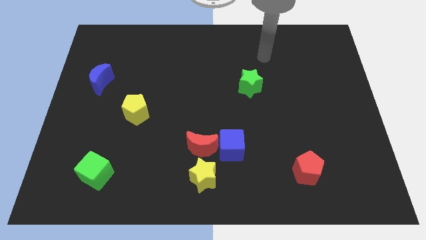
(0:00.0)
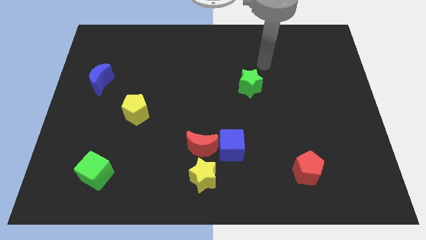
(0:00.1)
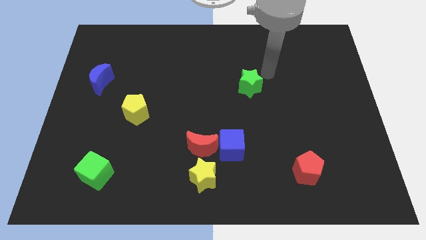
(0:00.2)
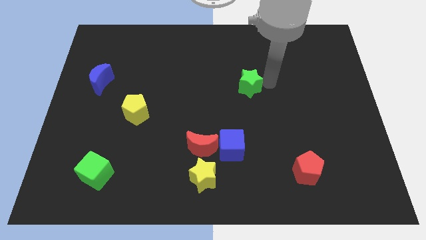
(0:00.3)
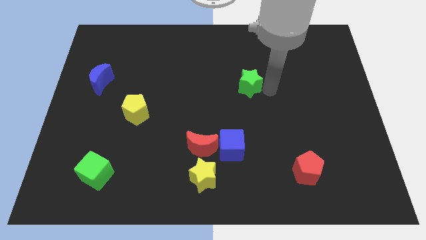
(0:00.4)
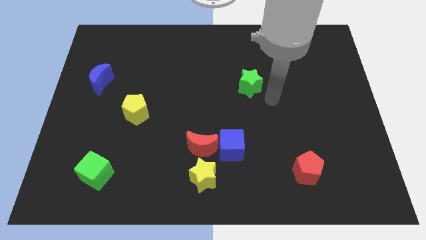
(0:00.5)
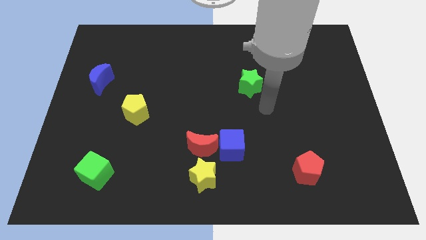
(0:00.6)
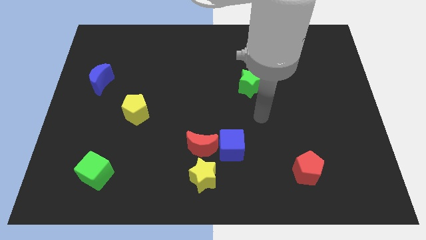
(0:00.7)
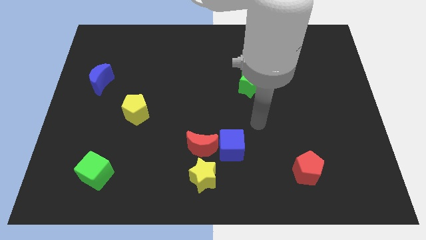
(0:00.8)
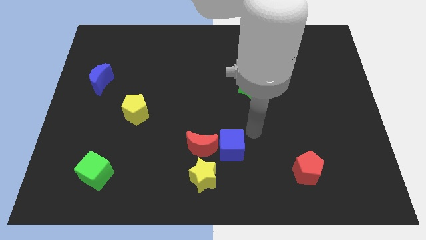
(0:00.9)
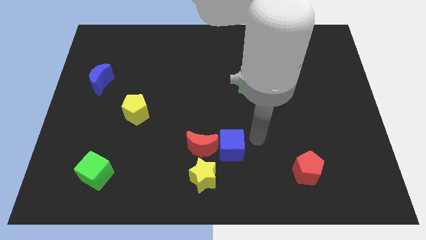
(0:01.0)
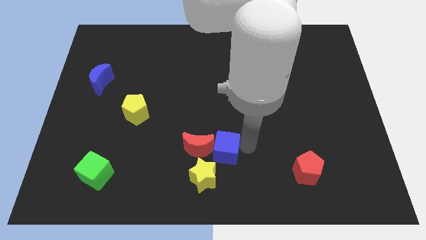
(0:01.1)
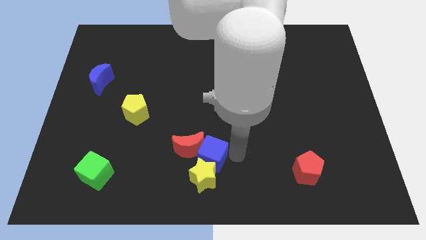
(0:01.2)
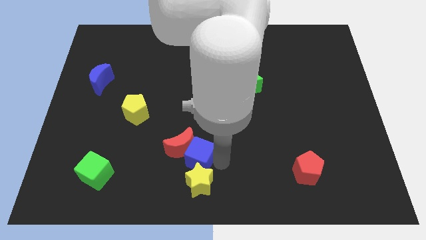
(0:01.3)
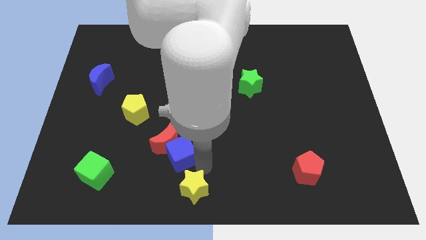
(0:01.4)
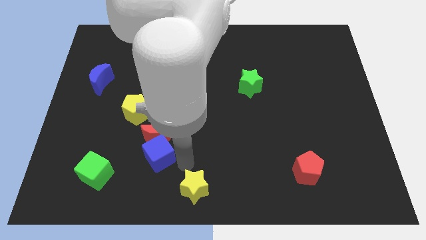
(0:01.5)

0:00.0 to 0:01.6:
move the red moon away from the blue cube and yellow star

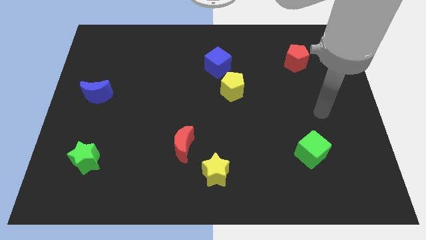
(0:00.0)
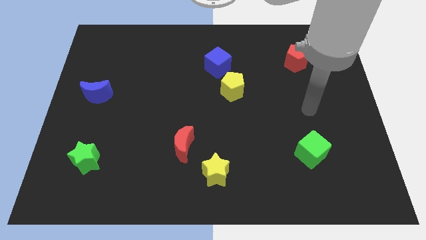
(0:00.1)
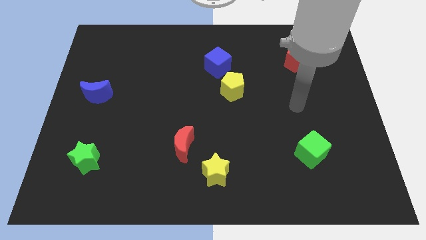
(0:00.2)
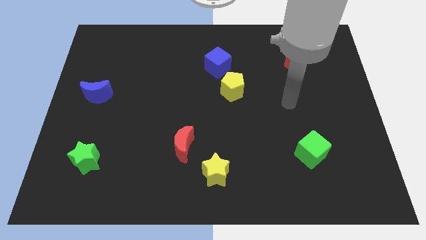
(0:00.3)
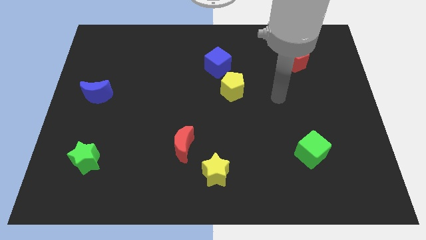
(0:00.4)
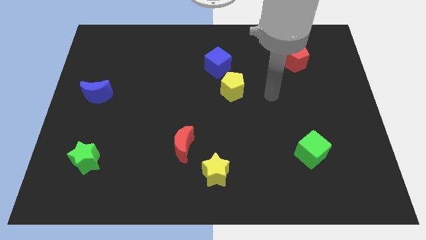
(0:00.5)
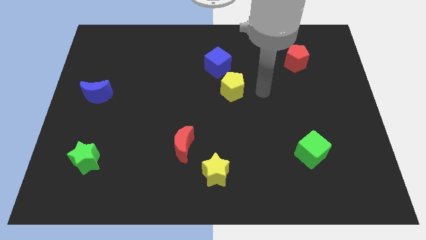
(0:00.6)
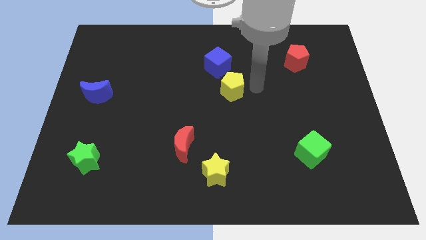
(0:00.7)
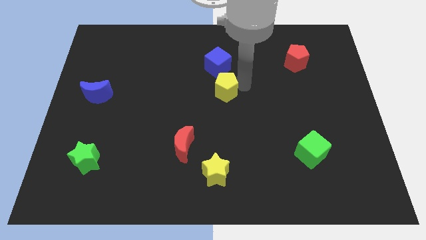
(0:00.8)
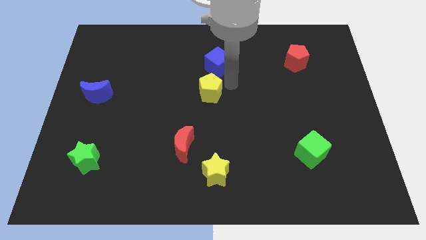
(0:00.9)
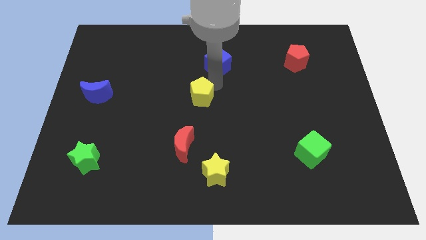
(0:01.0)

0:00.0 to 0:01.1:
pull the blue cube apart from the yellow pentagon

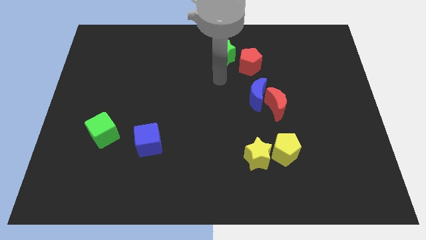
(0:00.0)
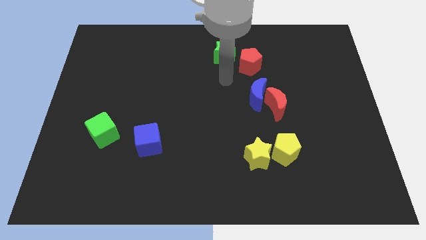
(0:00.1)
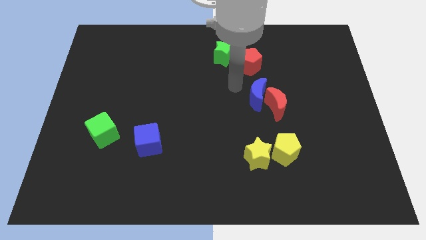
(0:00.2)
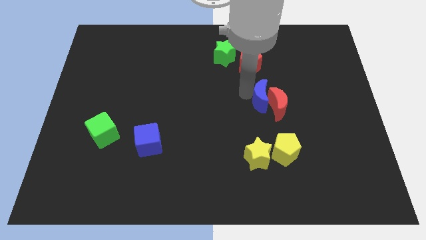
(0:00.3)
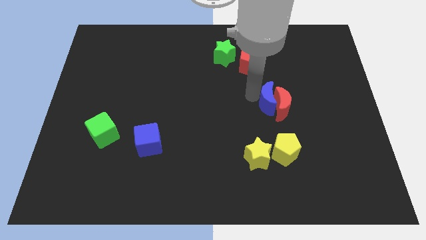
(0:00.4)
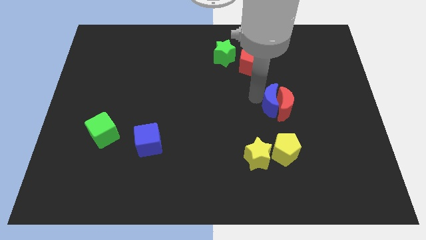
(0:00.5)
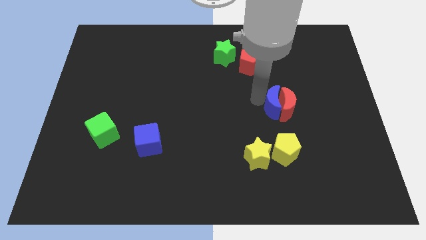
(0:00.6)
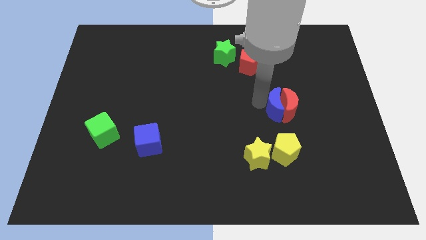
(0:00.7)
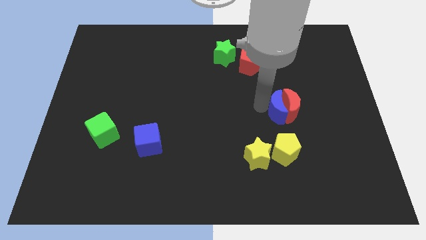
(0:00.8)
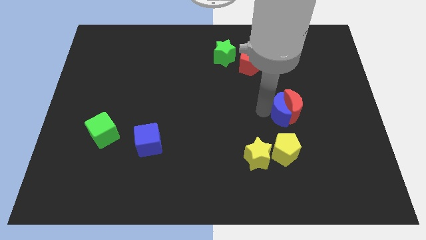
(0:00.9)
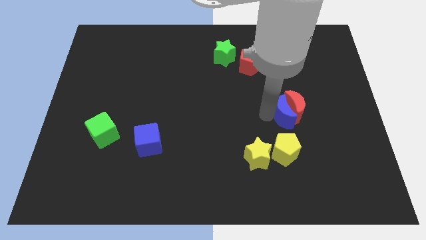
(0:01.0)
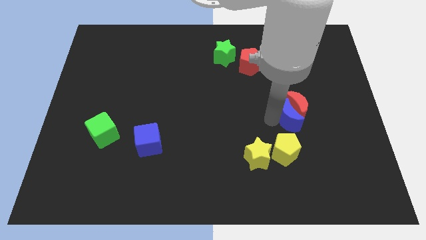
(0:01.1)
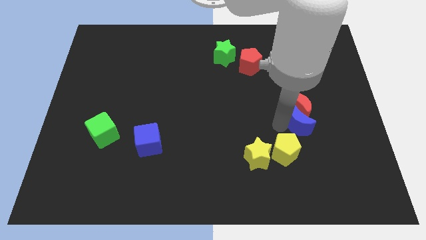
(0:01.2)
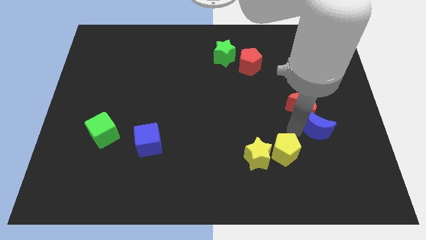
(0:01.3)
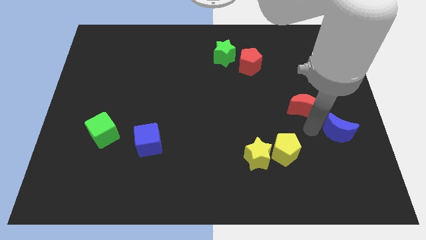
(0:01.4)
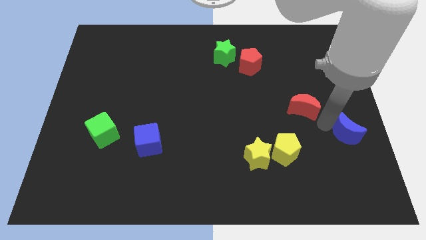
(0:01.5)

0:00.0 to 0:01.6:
pull the red moon apart from the blue moon

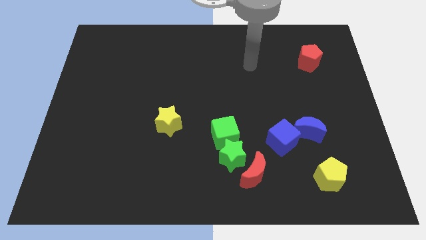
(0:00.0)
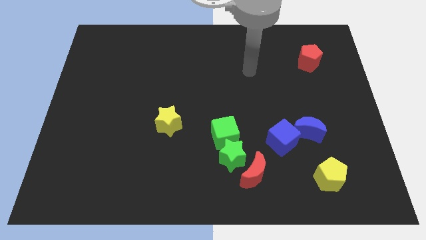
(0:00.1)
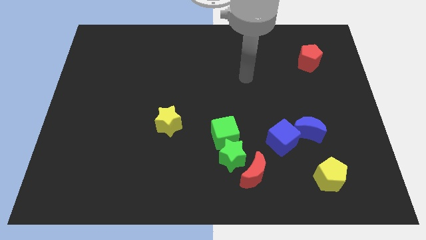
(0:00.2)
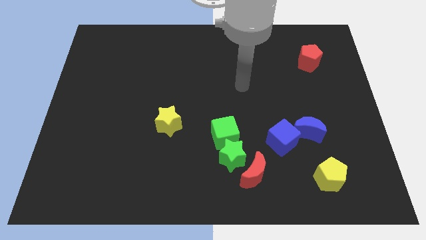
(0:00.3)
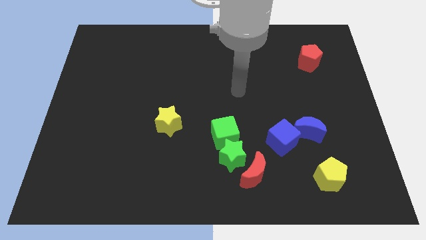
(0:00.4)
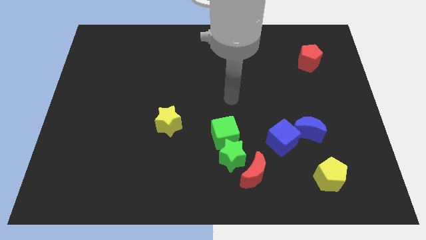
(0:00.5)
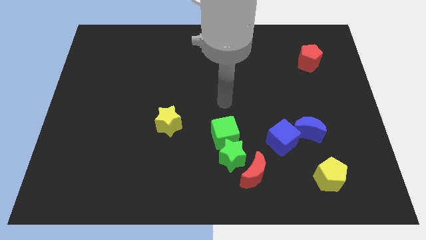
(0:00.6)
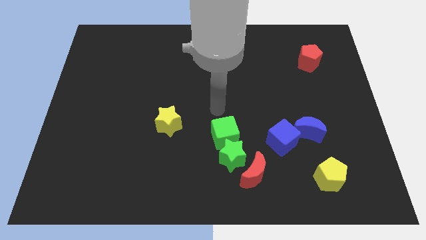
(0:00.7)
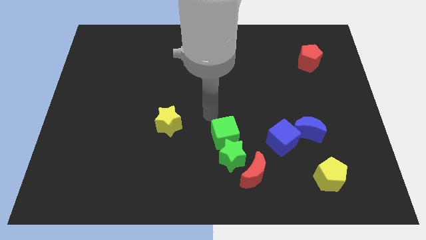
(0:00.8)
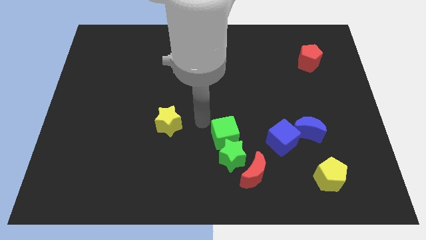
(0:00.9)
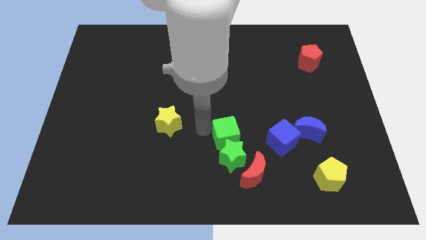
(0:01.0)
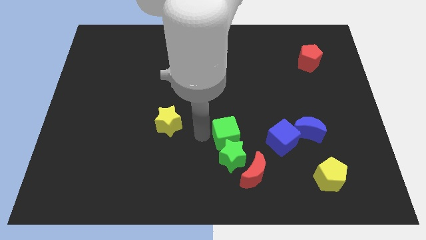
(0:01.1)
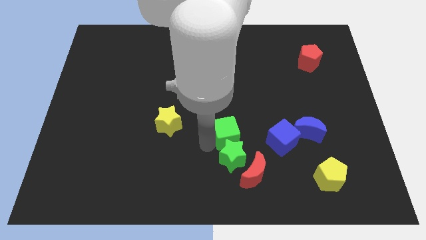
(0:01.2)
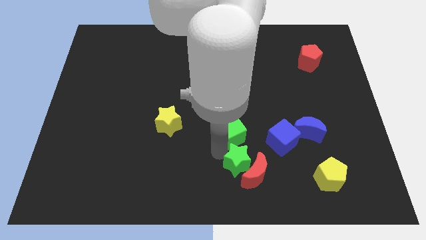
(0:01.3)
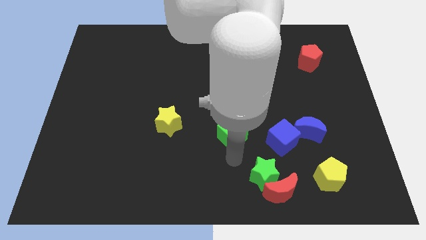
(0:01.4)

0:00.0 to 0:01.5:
move the green cube away from the green star

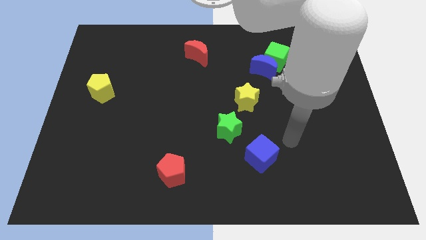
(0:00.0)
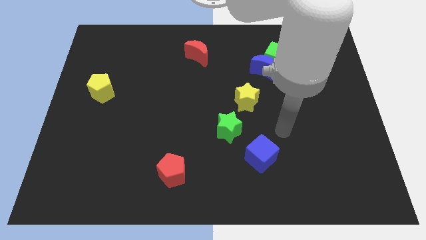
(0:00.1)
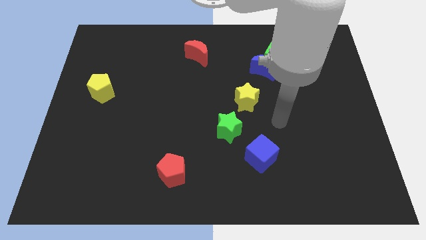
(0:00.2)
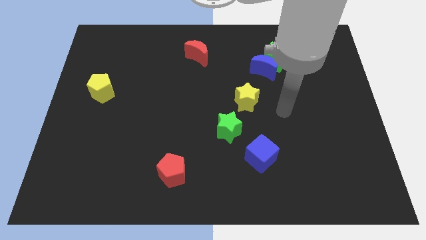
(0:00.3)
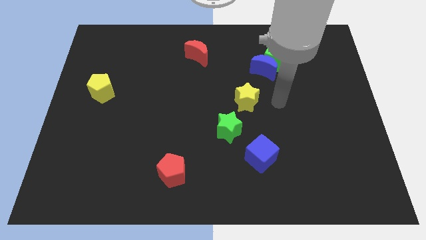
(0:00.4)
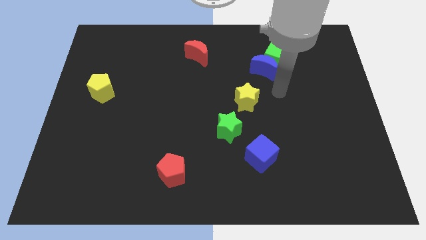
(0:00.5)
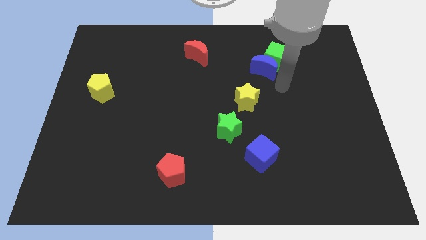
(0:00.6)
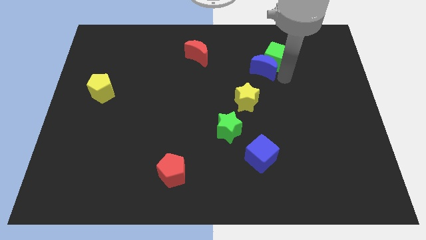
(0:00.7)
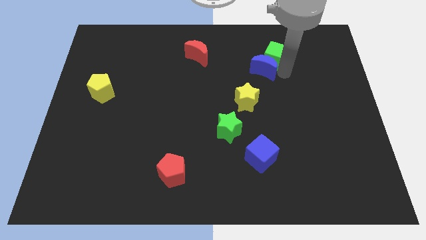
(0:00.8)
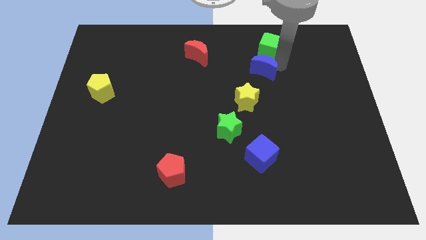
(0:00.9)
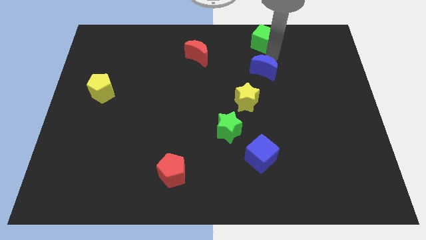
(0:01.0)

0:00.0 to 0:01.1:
pull the blue moon apart from the green cube

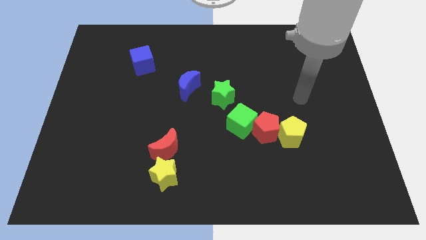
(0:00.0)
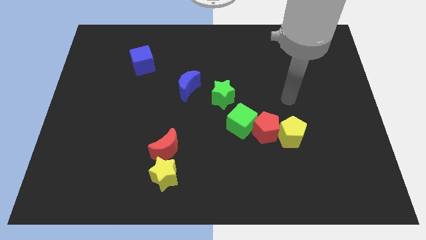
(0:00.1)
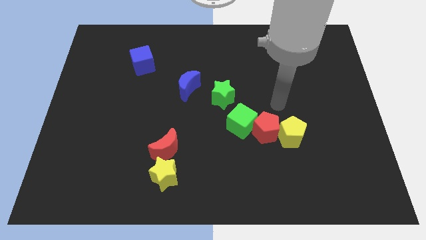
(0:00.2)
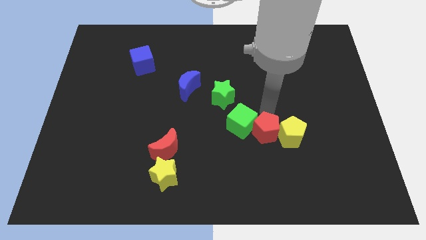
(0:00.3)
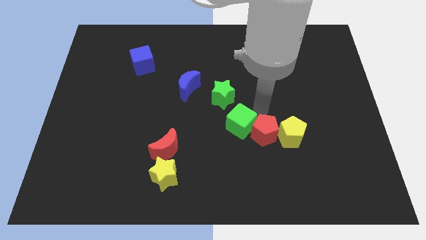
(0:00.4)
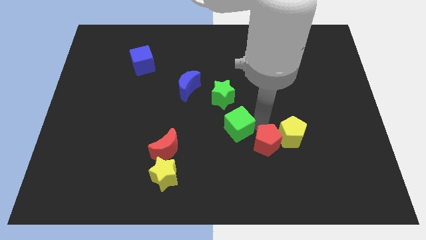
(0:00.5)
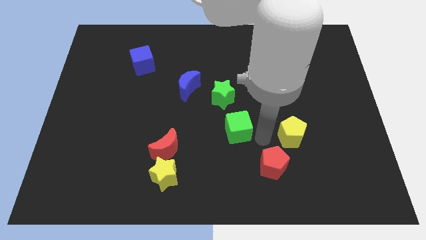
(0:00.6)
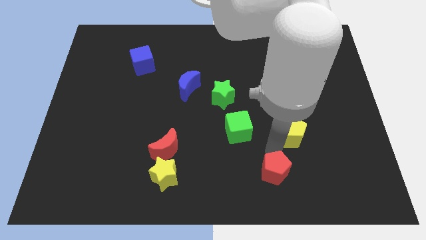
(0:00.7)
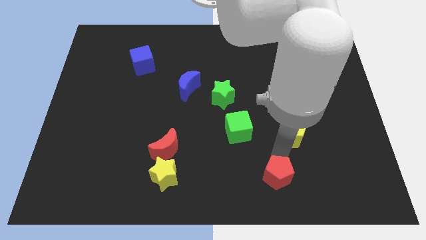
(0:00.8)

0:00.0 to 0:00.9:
separate the yellow pentagon from the red pentagon

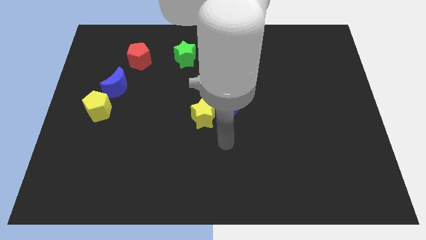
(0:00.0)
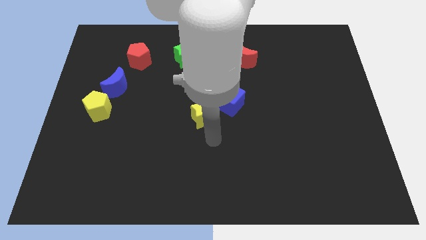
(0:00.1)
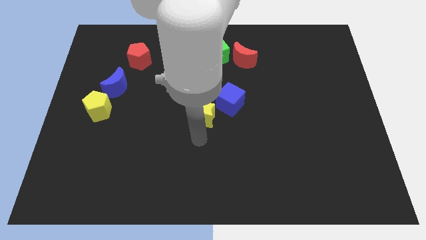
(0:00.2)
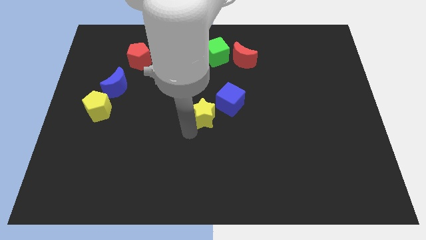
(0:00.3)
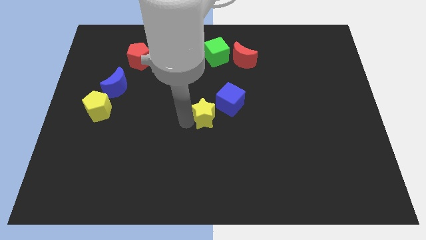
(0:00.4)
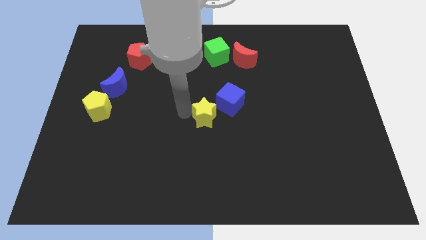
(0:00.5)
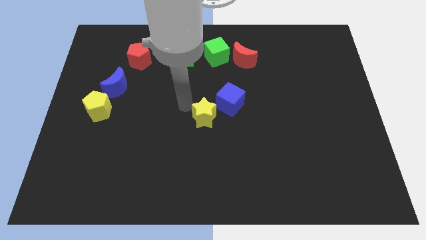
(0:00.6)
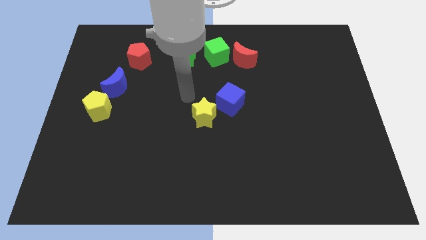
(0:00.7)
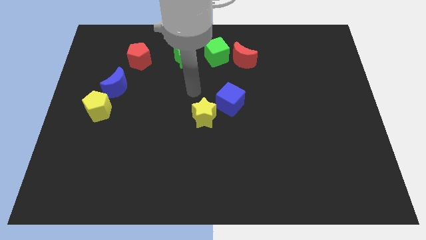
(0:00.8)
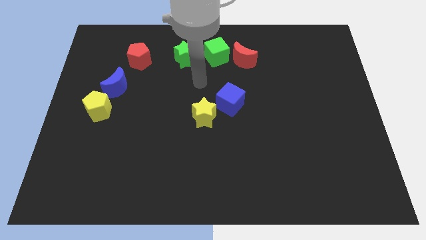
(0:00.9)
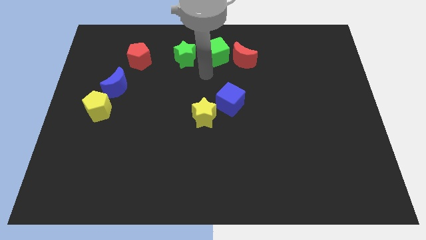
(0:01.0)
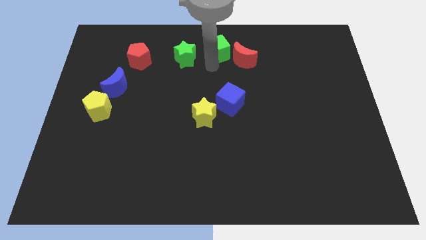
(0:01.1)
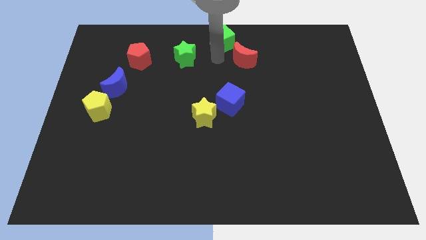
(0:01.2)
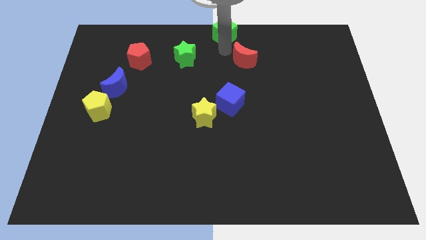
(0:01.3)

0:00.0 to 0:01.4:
separate the red moon from the green cube

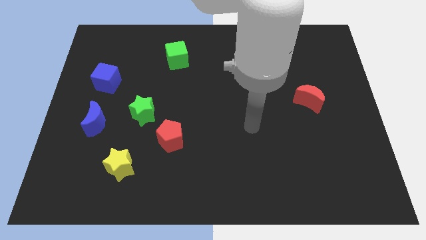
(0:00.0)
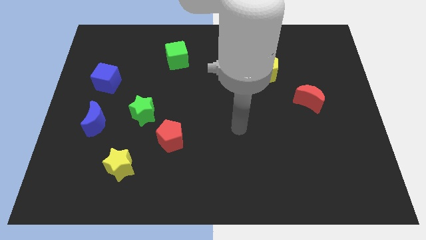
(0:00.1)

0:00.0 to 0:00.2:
separate the red pentagon from the green star

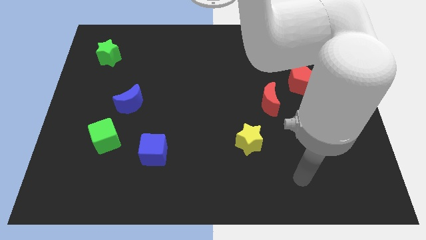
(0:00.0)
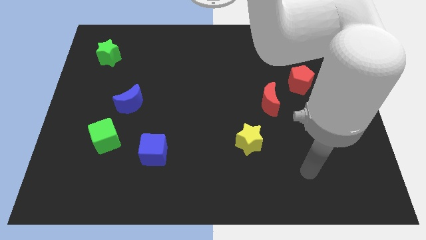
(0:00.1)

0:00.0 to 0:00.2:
move the red pentagon away from the yellow pentagon
